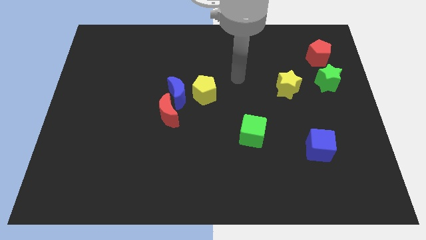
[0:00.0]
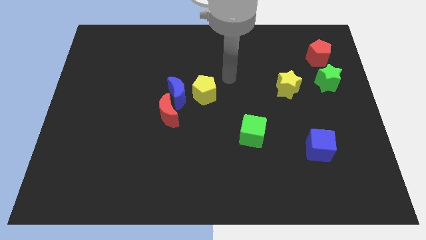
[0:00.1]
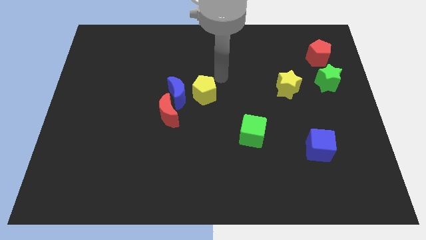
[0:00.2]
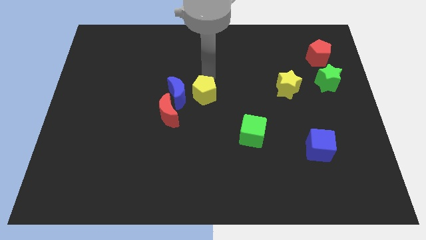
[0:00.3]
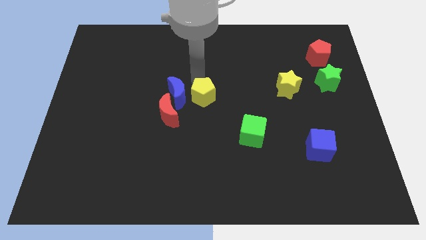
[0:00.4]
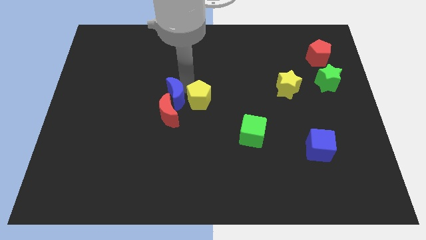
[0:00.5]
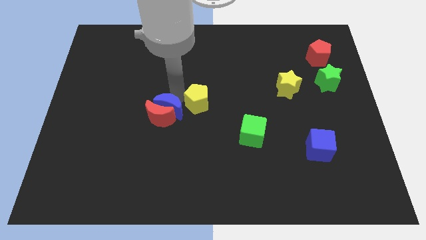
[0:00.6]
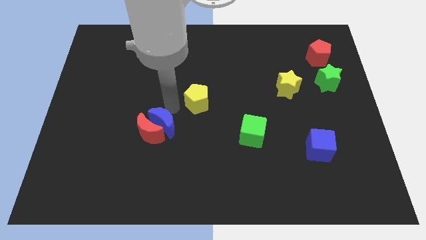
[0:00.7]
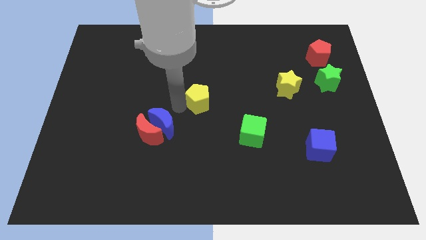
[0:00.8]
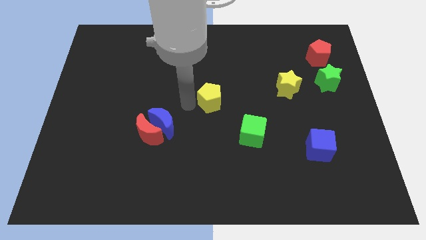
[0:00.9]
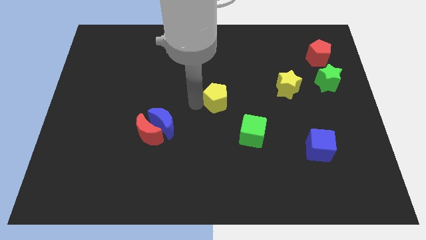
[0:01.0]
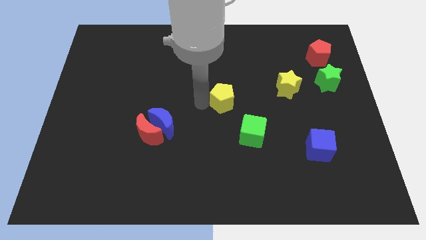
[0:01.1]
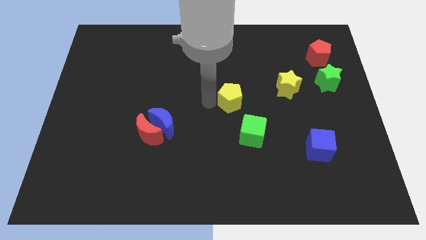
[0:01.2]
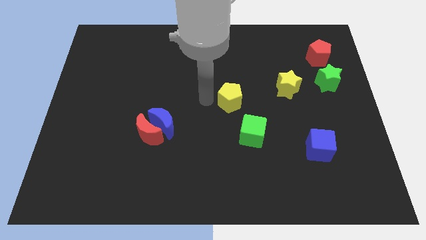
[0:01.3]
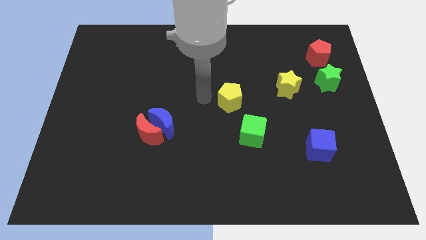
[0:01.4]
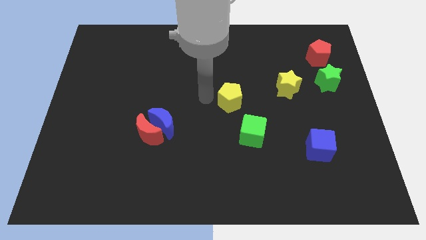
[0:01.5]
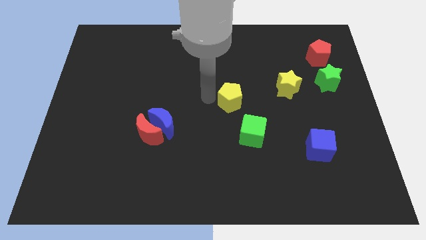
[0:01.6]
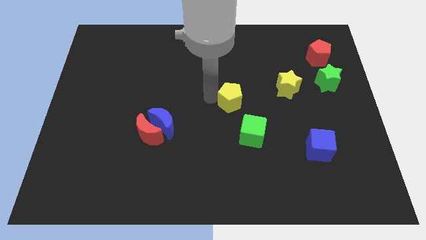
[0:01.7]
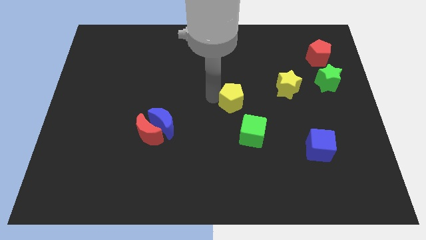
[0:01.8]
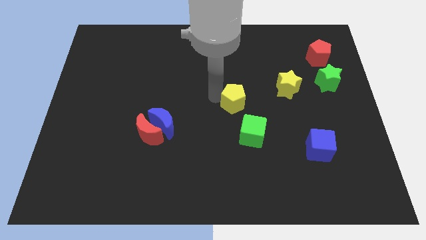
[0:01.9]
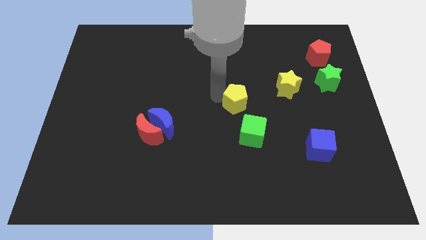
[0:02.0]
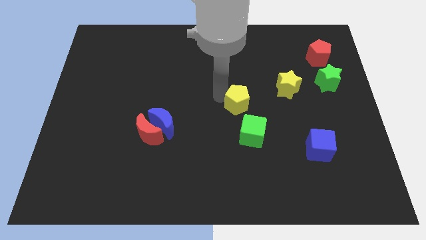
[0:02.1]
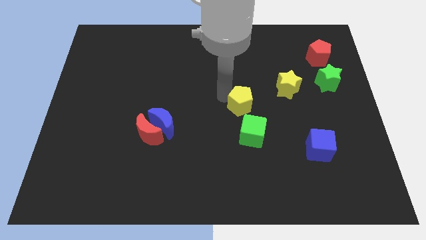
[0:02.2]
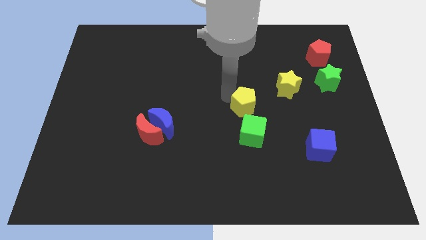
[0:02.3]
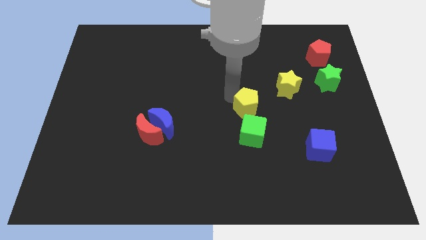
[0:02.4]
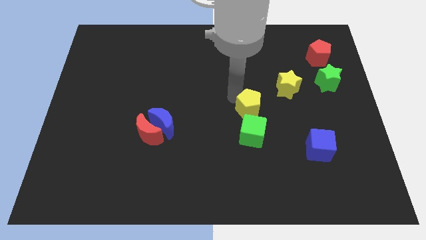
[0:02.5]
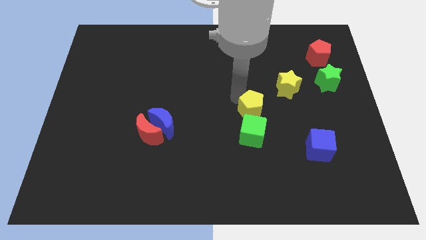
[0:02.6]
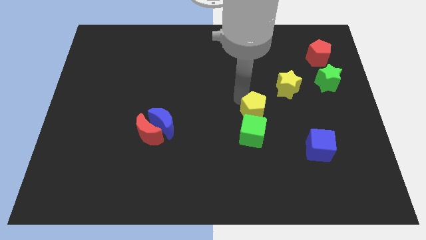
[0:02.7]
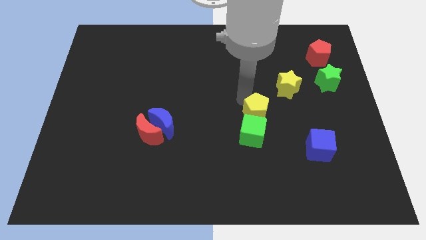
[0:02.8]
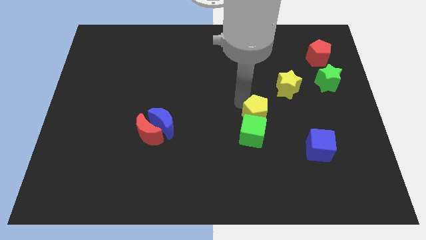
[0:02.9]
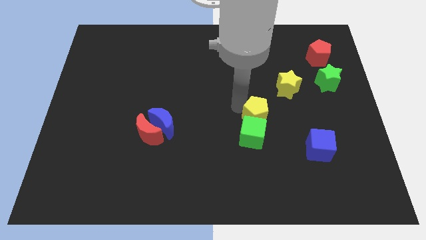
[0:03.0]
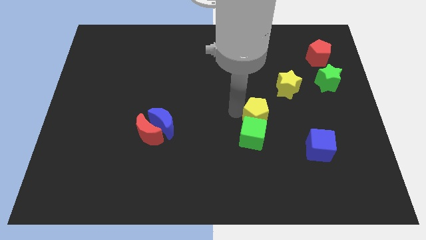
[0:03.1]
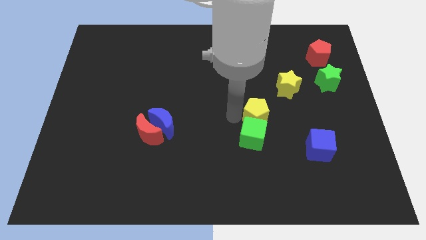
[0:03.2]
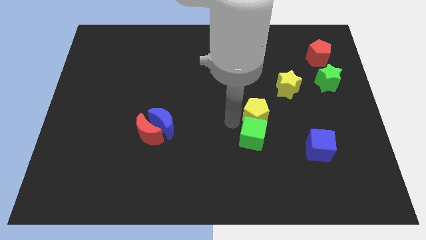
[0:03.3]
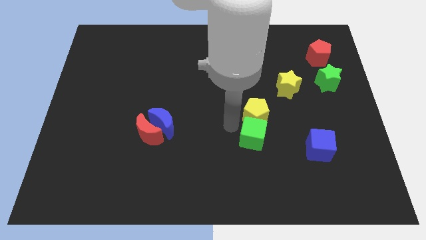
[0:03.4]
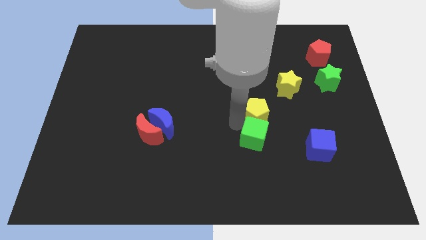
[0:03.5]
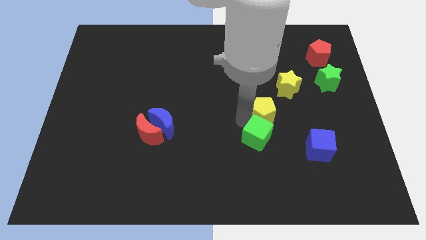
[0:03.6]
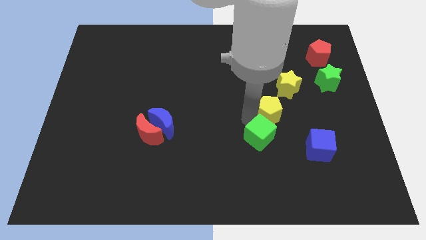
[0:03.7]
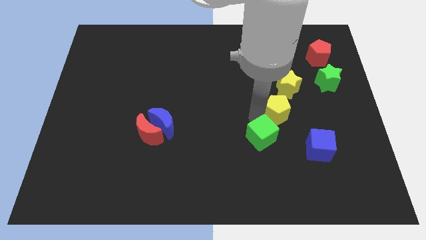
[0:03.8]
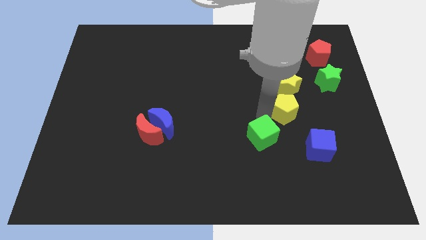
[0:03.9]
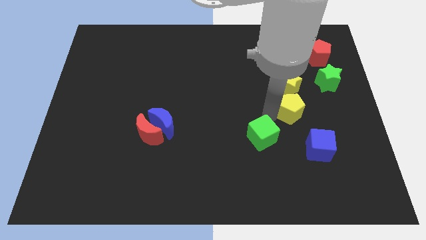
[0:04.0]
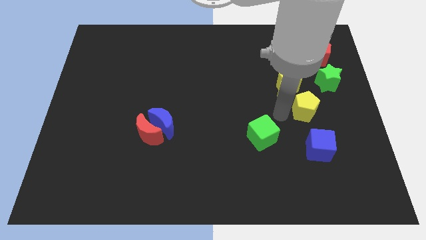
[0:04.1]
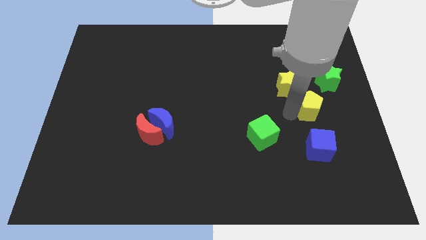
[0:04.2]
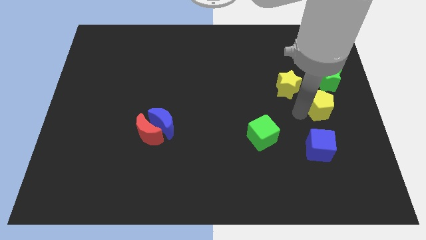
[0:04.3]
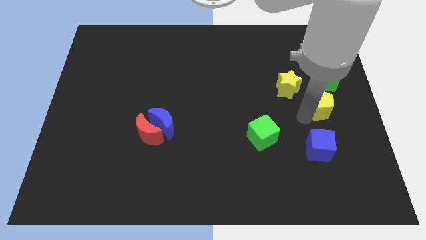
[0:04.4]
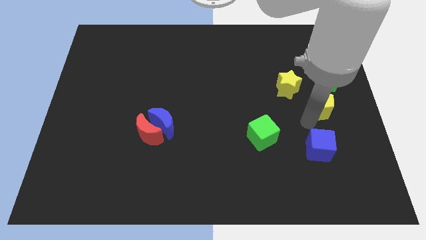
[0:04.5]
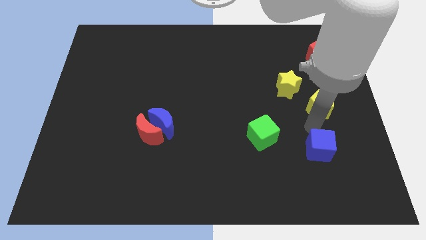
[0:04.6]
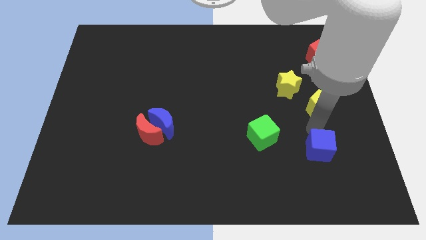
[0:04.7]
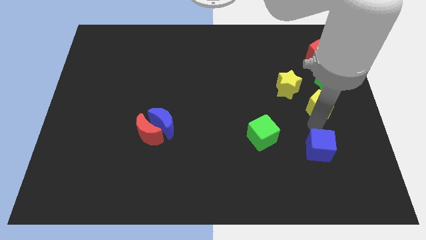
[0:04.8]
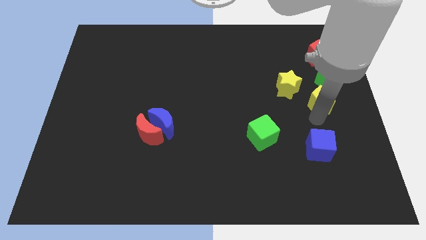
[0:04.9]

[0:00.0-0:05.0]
put the yellow pentagon to the bottom of the red pentagon

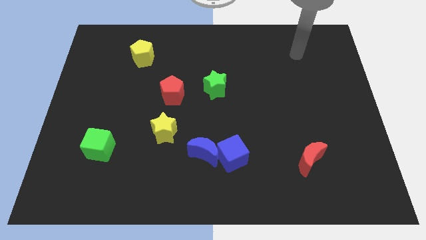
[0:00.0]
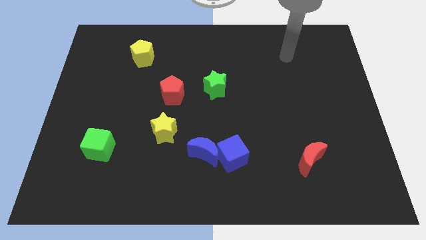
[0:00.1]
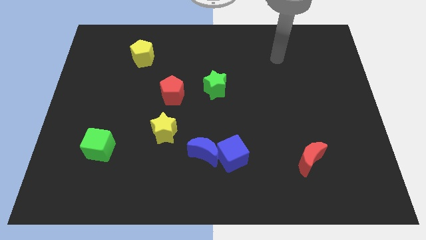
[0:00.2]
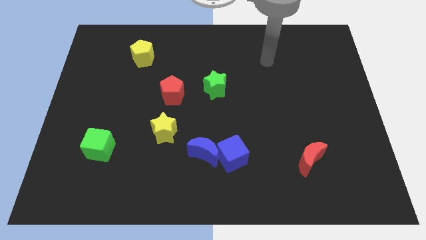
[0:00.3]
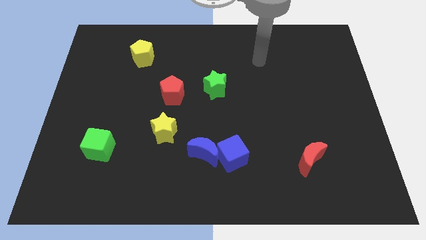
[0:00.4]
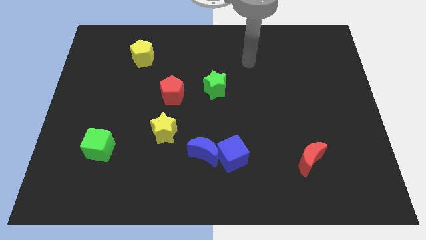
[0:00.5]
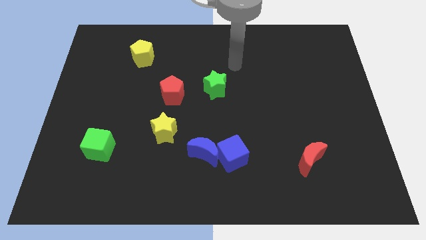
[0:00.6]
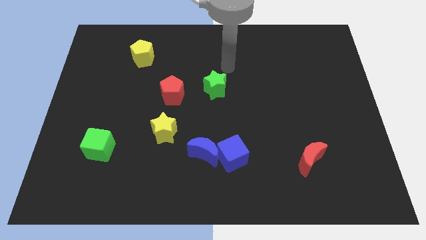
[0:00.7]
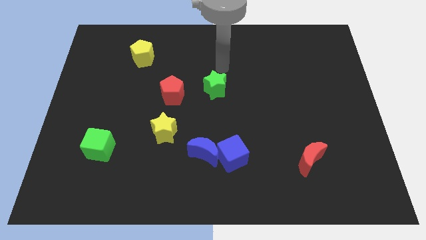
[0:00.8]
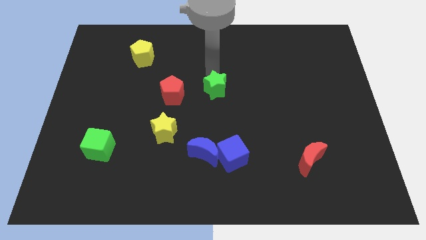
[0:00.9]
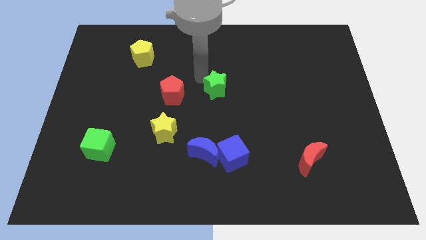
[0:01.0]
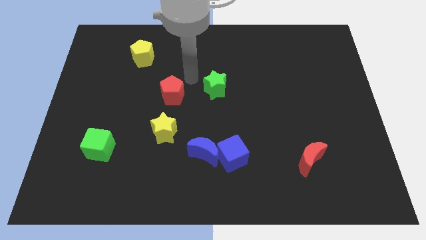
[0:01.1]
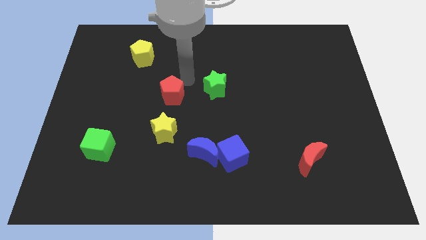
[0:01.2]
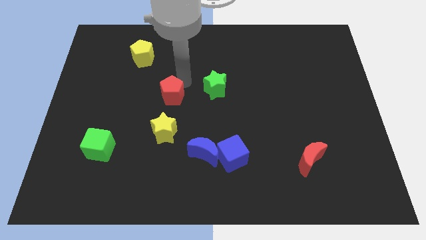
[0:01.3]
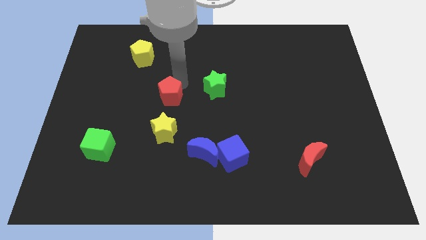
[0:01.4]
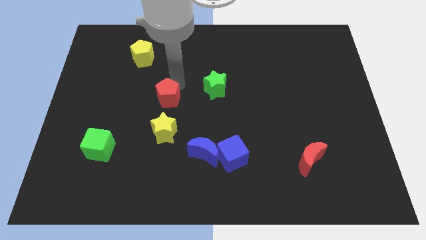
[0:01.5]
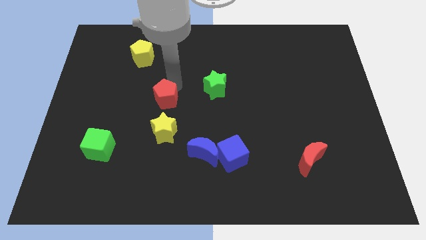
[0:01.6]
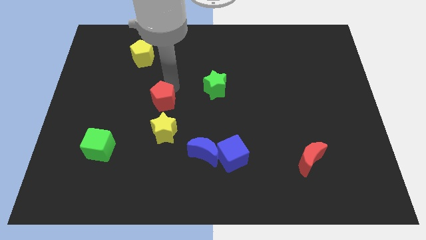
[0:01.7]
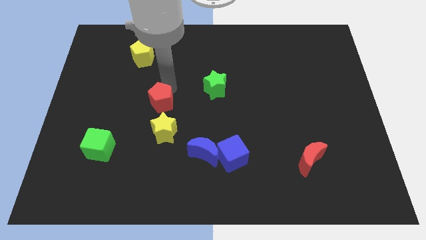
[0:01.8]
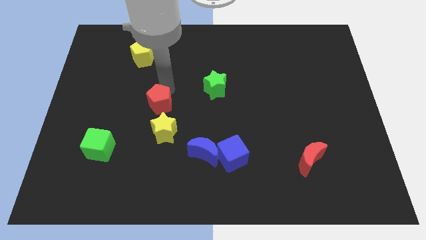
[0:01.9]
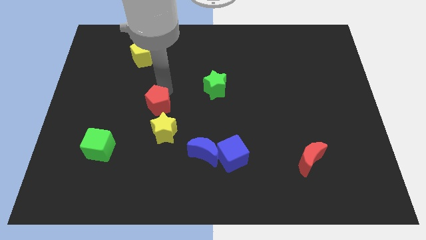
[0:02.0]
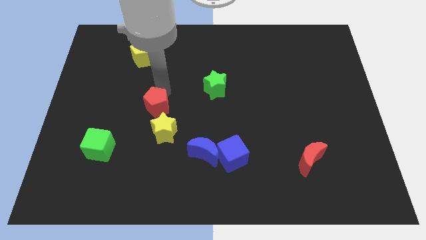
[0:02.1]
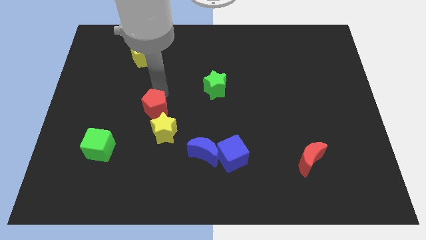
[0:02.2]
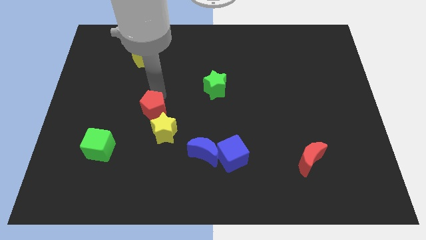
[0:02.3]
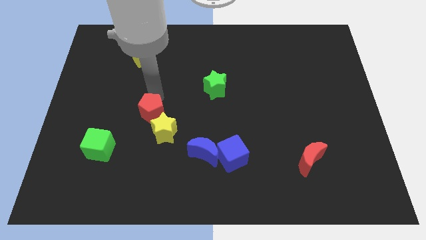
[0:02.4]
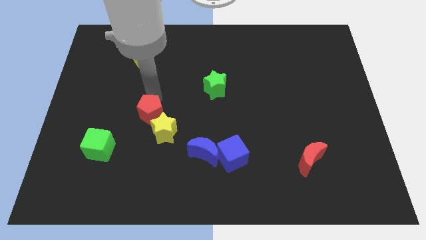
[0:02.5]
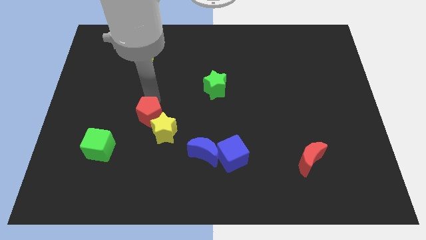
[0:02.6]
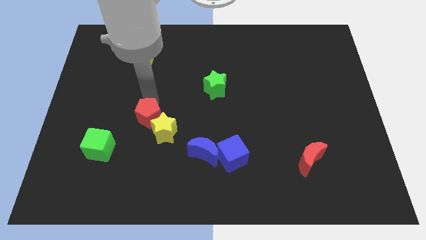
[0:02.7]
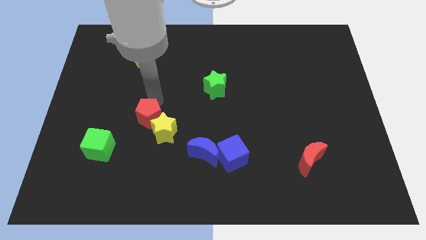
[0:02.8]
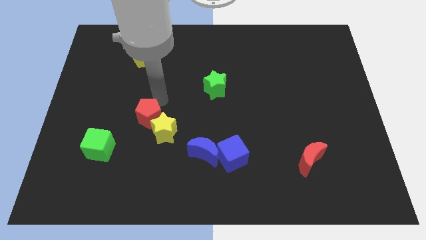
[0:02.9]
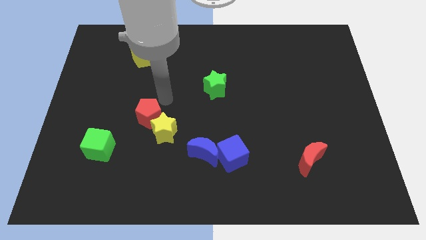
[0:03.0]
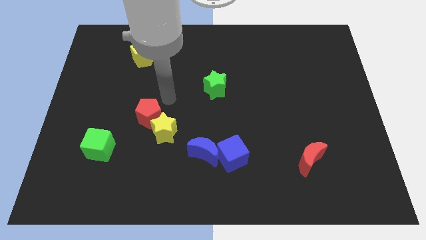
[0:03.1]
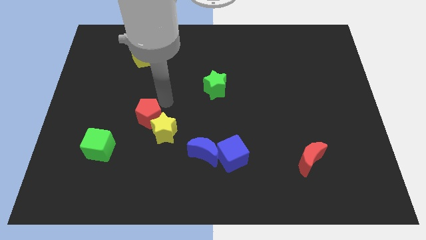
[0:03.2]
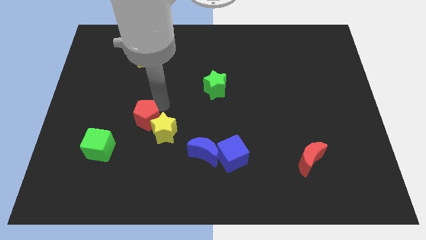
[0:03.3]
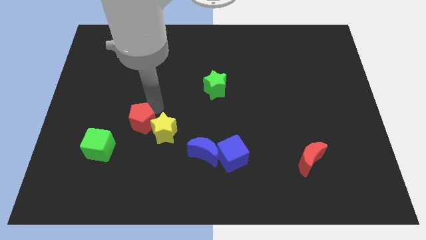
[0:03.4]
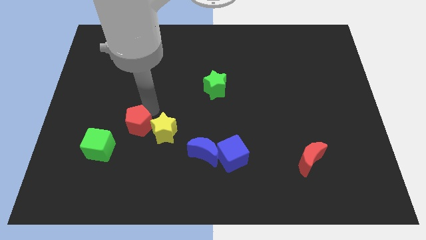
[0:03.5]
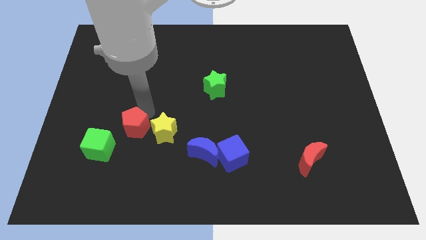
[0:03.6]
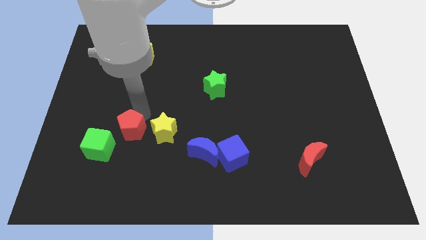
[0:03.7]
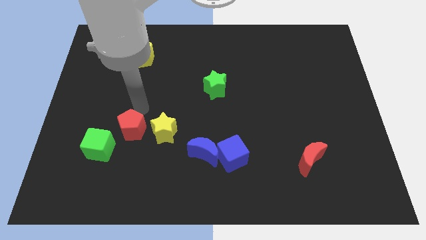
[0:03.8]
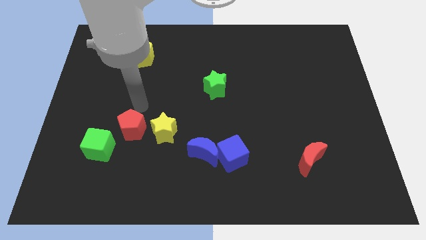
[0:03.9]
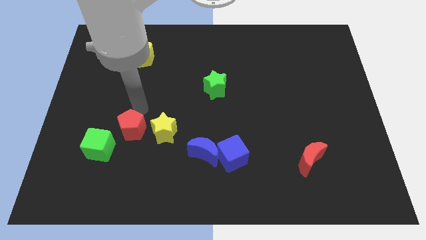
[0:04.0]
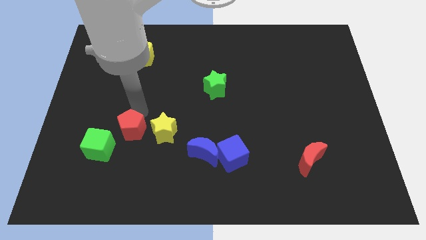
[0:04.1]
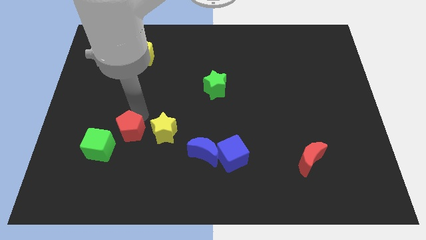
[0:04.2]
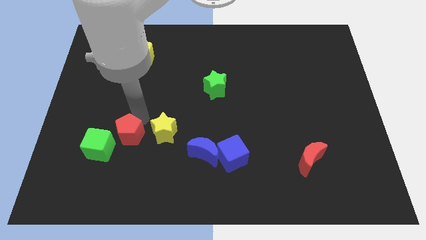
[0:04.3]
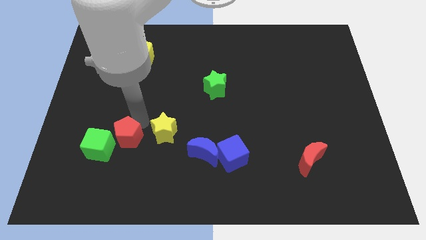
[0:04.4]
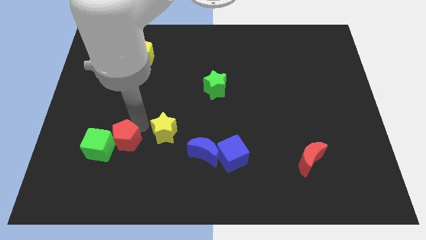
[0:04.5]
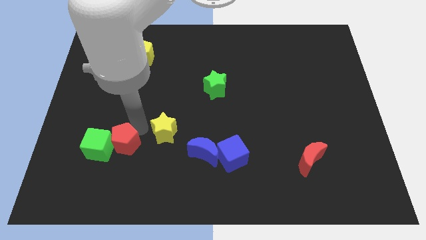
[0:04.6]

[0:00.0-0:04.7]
push the red pentagon to the bottom right side of the green cube
